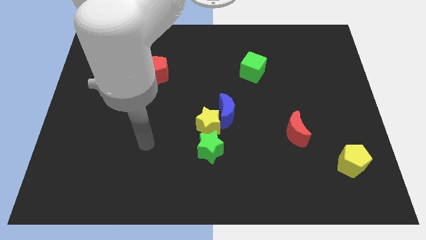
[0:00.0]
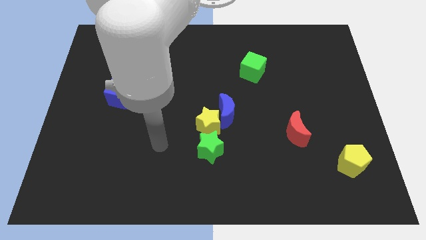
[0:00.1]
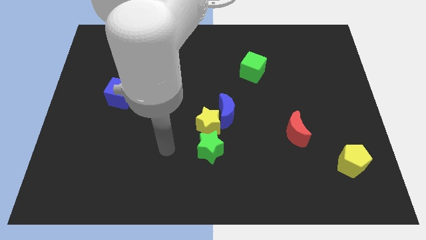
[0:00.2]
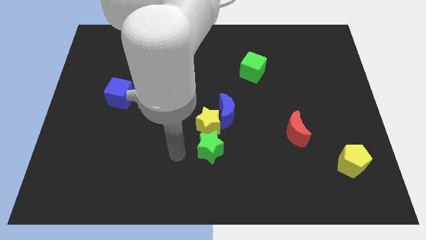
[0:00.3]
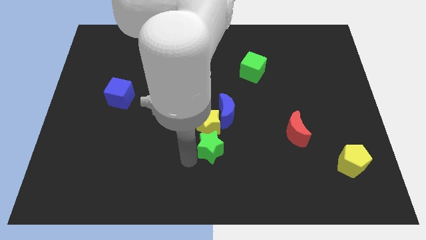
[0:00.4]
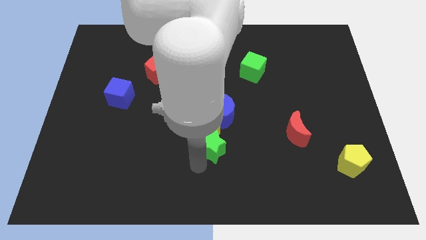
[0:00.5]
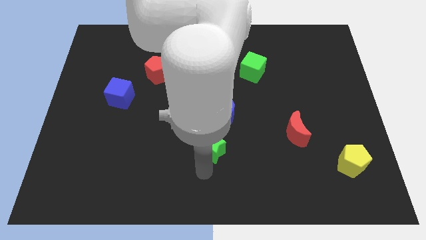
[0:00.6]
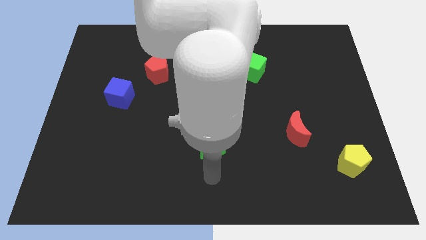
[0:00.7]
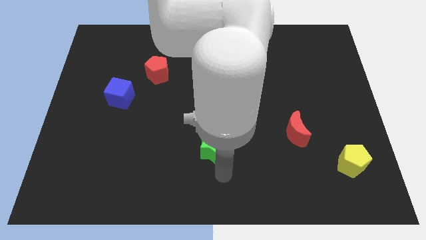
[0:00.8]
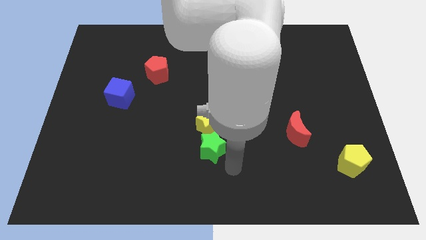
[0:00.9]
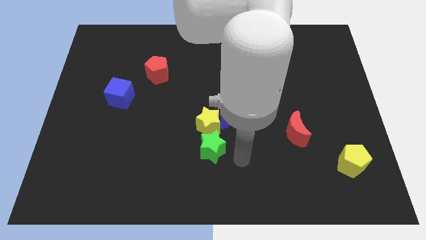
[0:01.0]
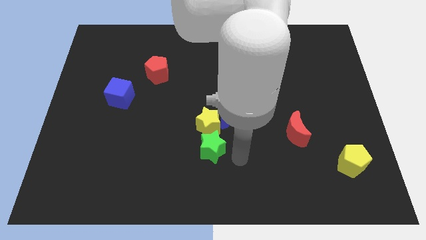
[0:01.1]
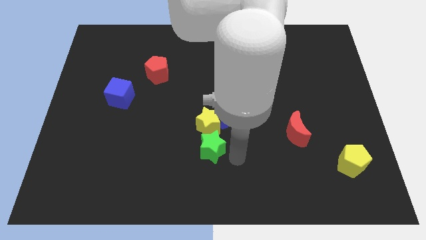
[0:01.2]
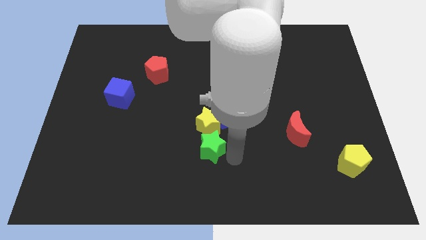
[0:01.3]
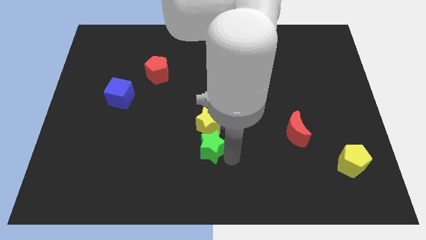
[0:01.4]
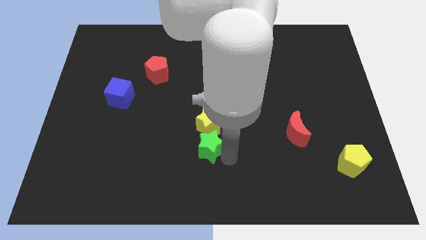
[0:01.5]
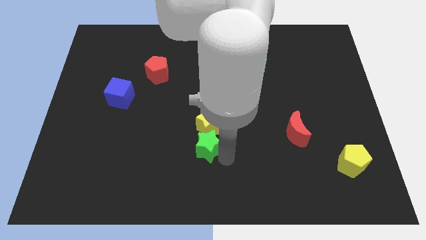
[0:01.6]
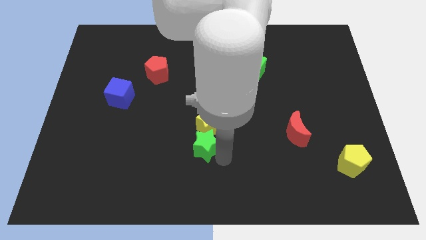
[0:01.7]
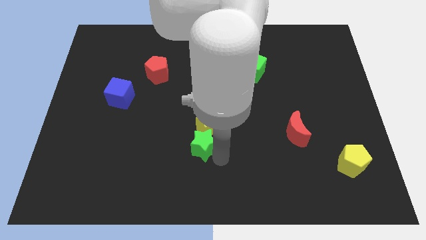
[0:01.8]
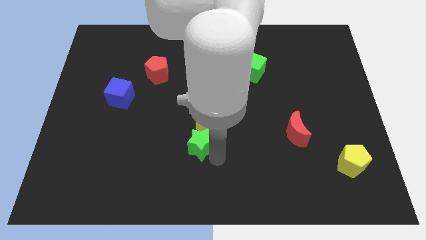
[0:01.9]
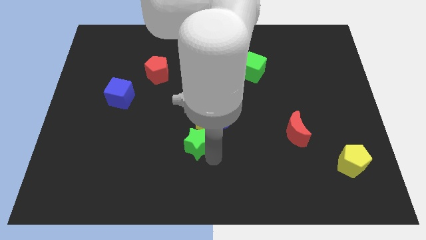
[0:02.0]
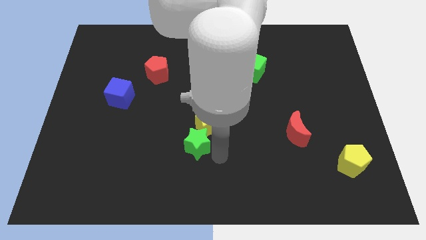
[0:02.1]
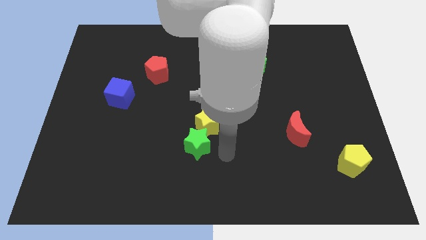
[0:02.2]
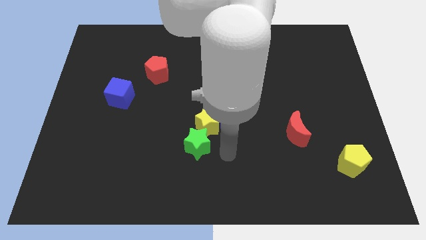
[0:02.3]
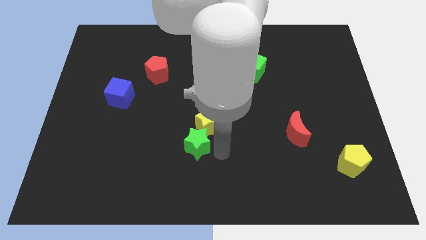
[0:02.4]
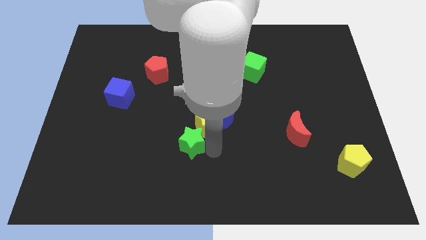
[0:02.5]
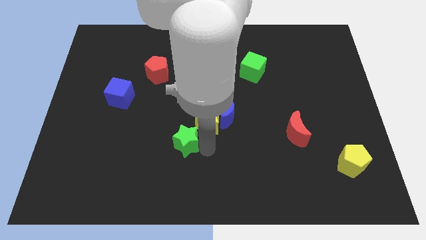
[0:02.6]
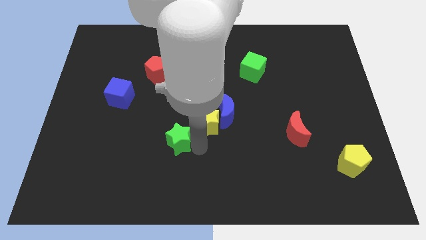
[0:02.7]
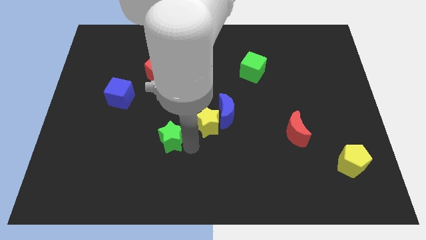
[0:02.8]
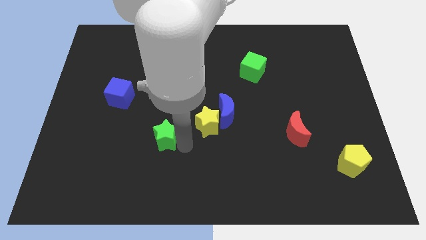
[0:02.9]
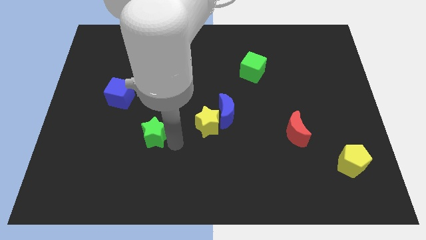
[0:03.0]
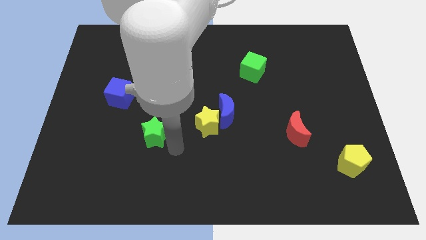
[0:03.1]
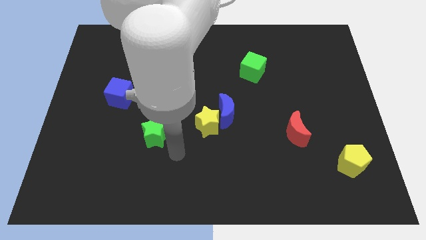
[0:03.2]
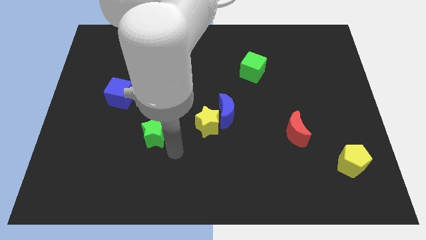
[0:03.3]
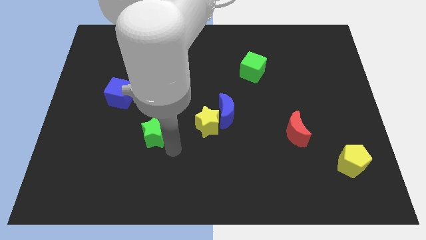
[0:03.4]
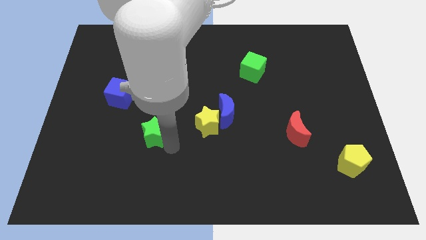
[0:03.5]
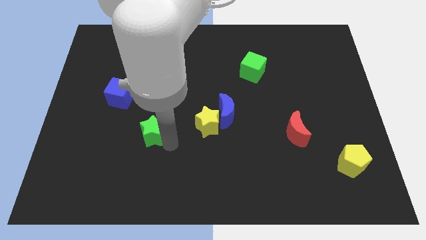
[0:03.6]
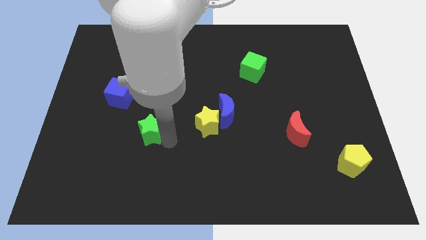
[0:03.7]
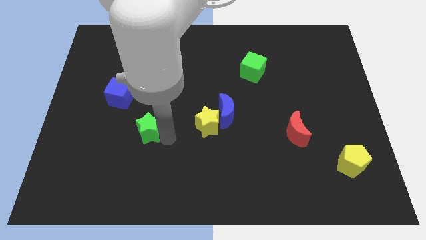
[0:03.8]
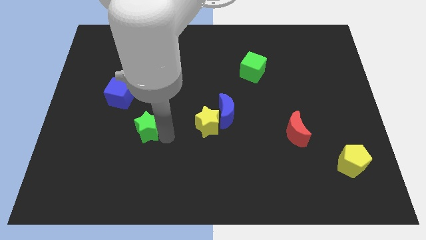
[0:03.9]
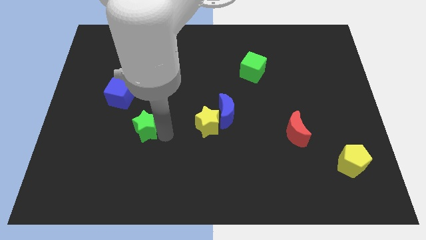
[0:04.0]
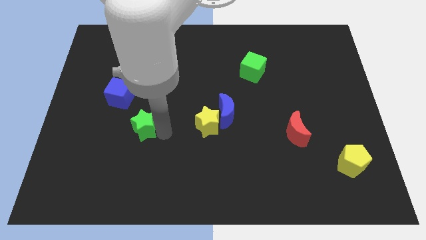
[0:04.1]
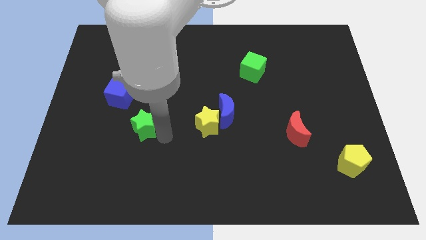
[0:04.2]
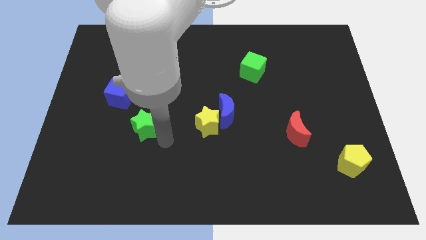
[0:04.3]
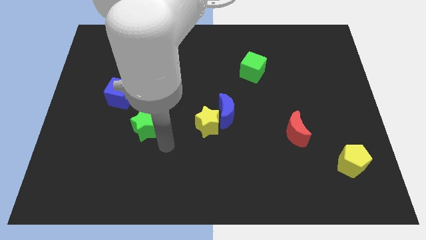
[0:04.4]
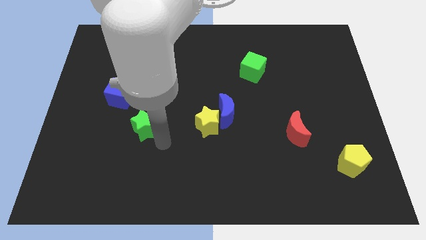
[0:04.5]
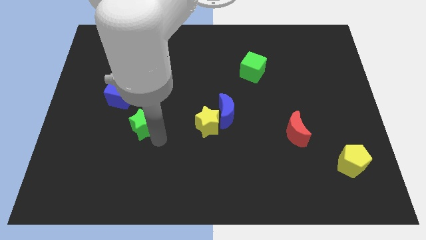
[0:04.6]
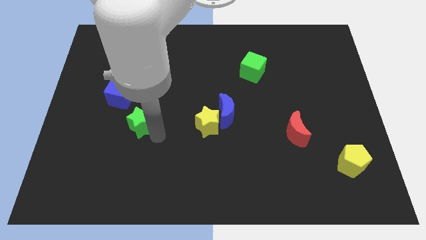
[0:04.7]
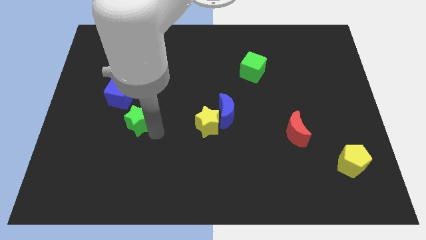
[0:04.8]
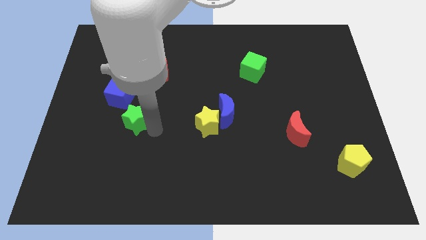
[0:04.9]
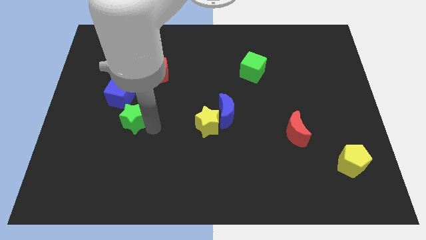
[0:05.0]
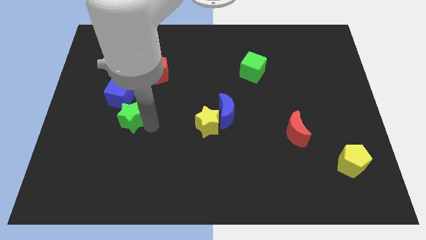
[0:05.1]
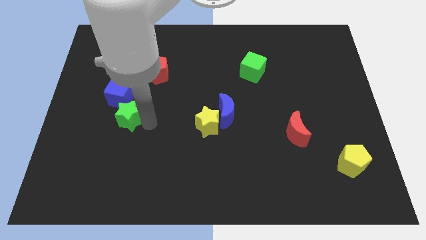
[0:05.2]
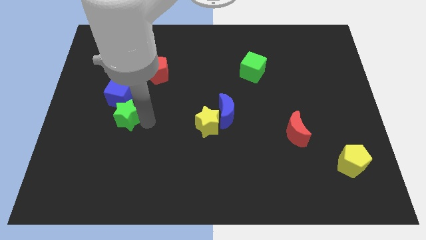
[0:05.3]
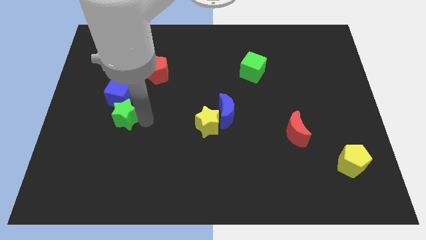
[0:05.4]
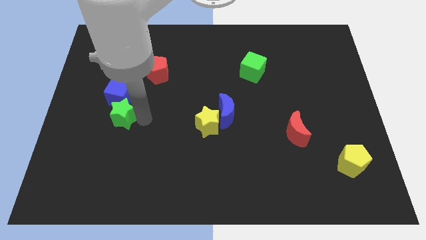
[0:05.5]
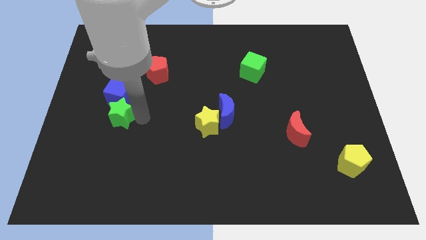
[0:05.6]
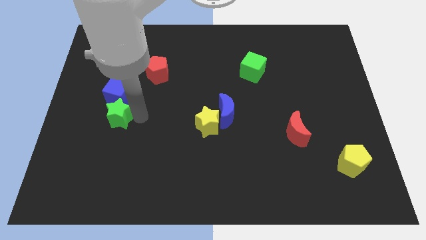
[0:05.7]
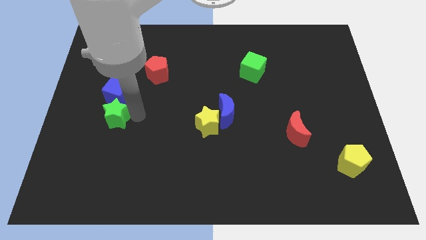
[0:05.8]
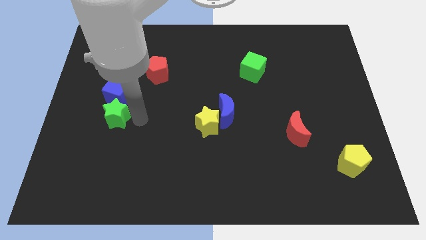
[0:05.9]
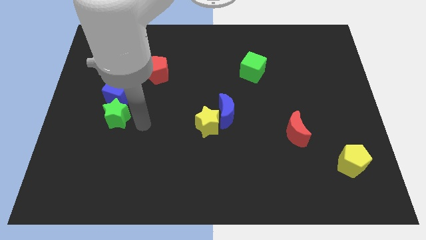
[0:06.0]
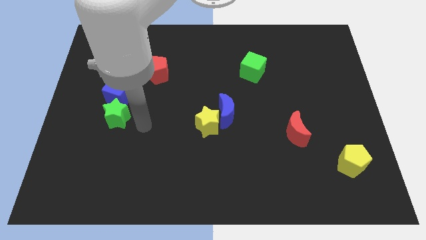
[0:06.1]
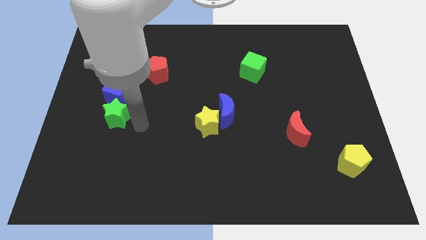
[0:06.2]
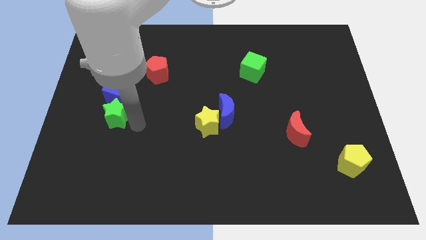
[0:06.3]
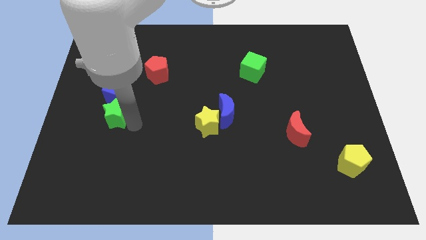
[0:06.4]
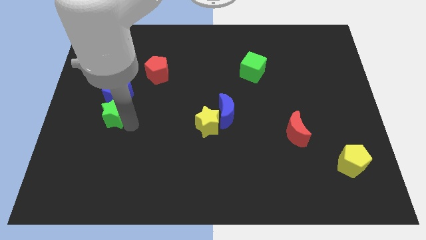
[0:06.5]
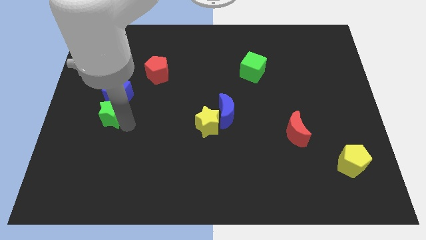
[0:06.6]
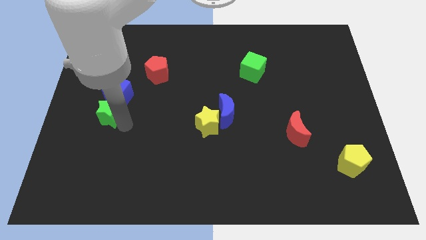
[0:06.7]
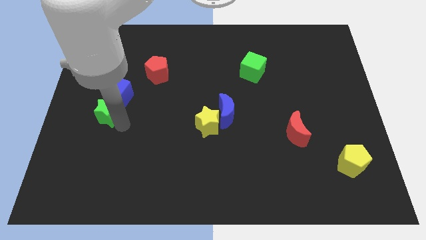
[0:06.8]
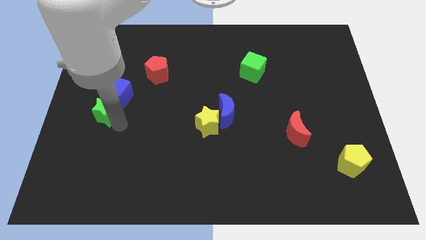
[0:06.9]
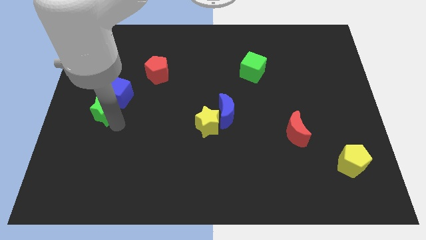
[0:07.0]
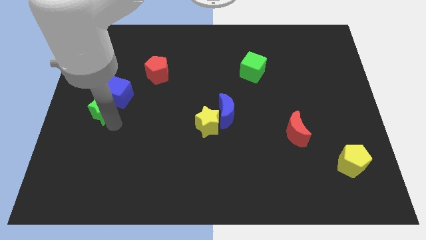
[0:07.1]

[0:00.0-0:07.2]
put the green star to the left side

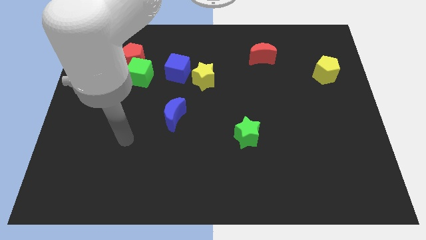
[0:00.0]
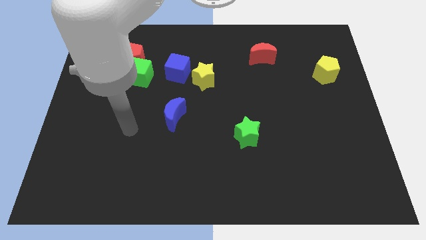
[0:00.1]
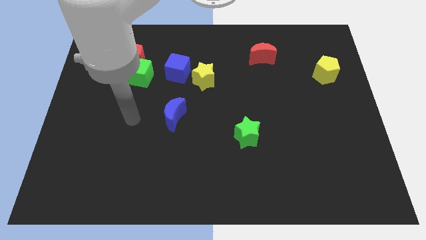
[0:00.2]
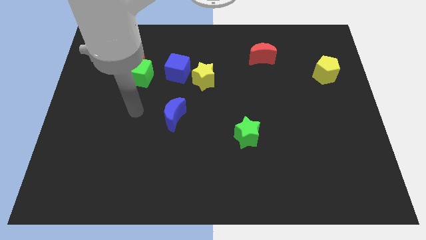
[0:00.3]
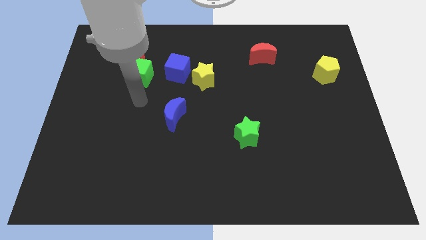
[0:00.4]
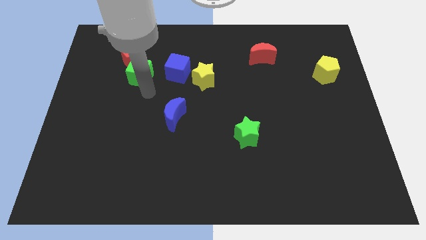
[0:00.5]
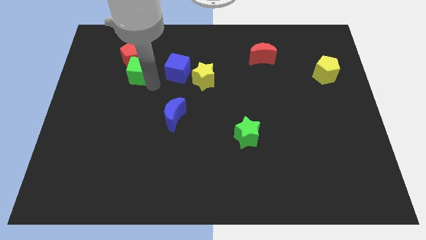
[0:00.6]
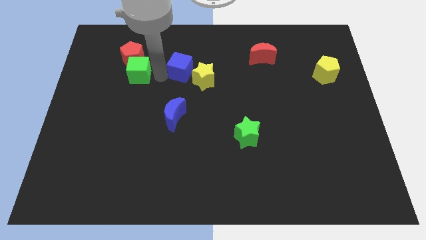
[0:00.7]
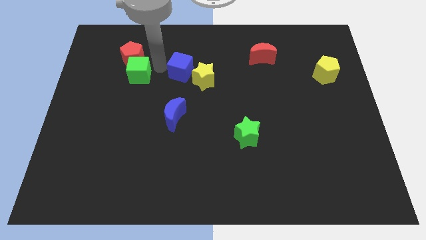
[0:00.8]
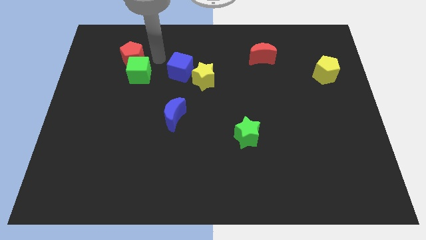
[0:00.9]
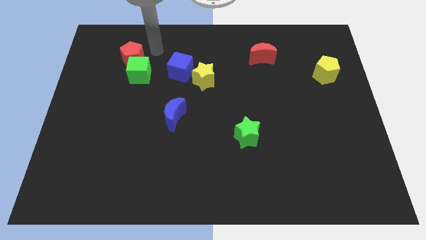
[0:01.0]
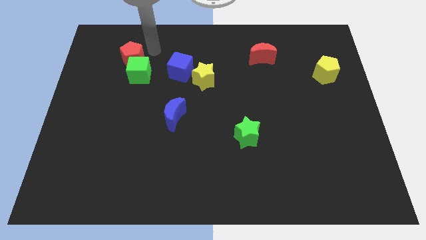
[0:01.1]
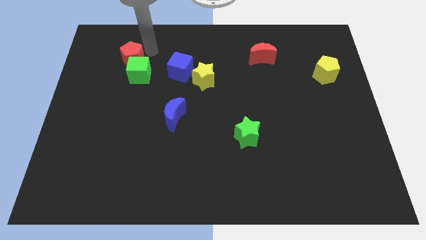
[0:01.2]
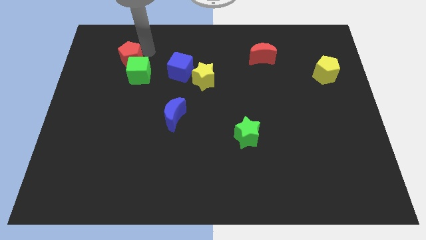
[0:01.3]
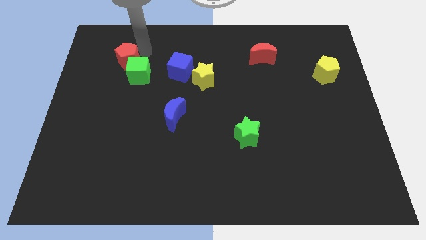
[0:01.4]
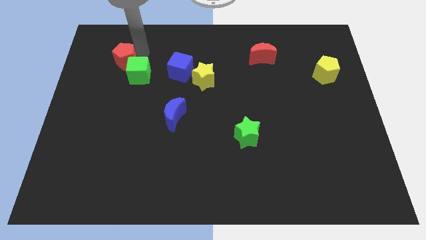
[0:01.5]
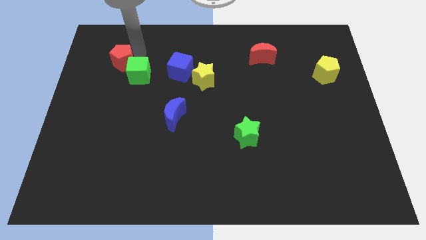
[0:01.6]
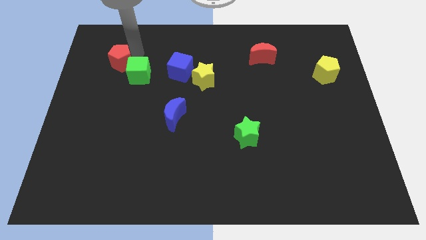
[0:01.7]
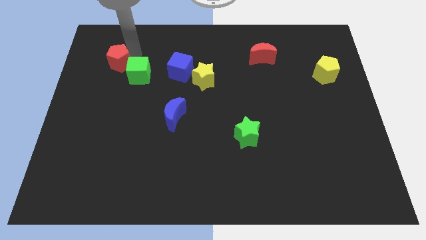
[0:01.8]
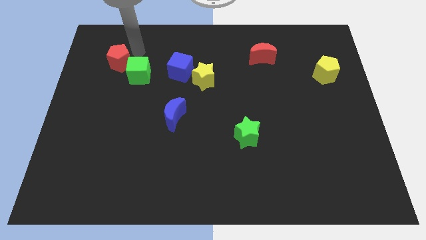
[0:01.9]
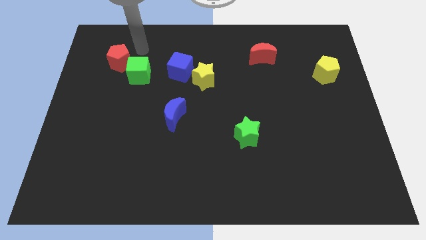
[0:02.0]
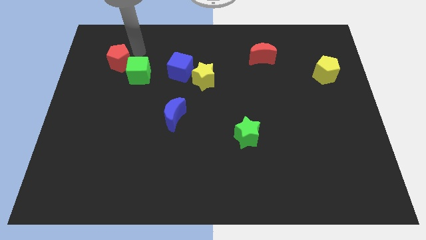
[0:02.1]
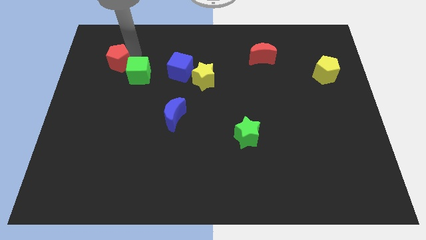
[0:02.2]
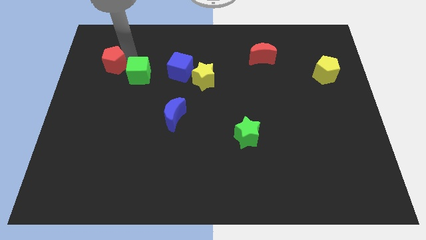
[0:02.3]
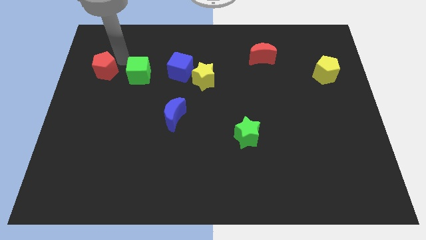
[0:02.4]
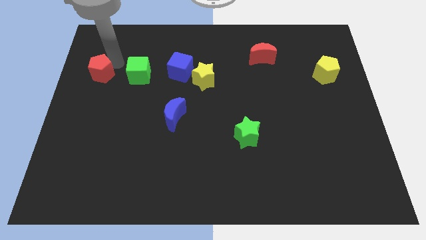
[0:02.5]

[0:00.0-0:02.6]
put the red pentagon to the left side
